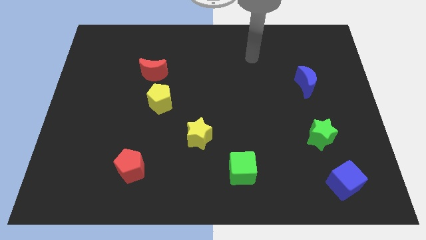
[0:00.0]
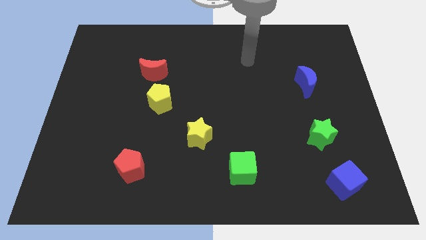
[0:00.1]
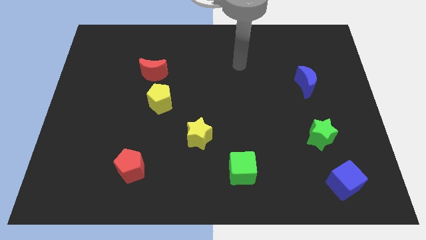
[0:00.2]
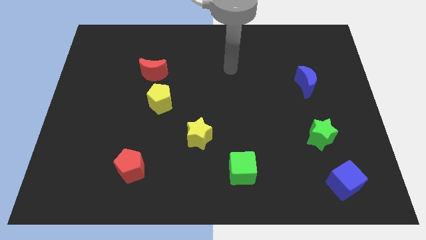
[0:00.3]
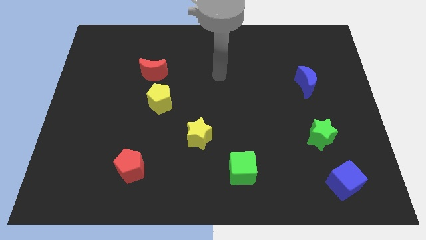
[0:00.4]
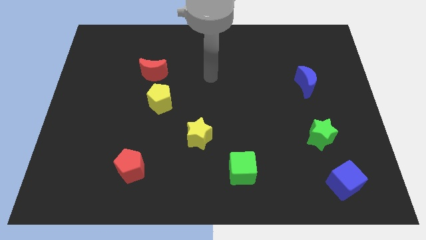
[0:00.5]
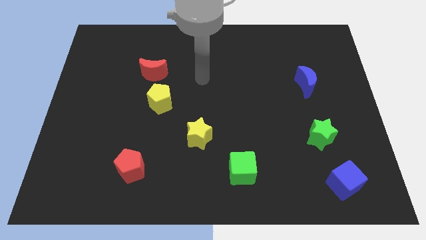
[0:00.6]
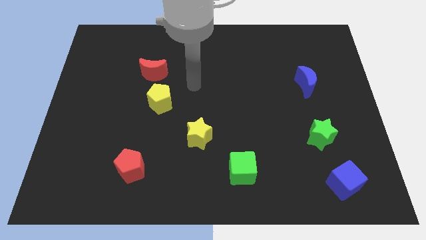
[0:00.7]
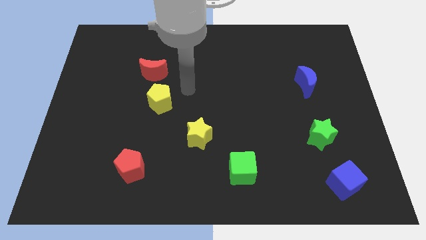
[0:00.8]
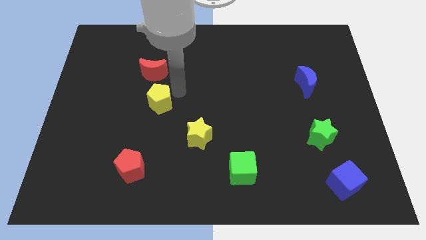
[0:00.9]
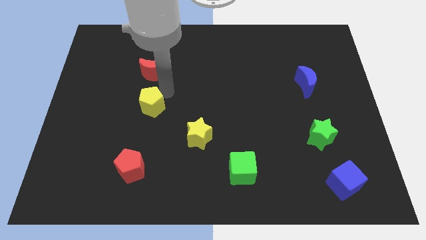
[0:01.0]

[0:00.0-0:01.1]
move the red moon away from the yellow pentagon

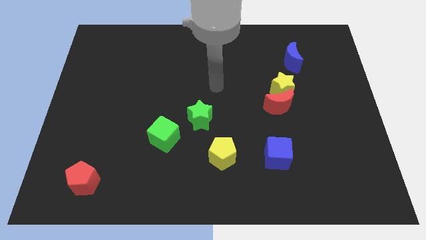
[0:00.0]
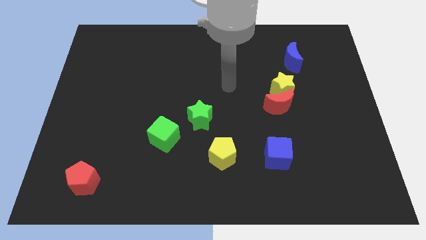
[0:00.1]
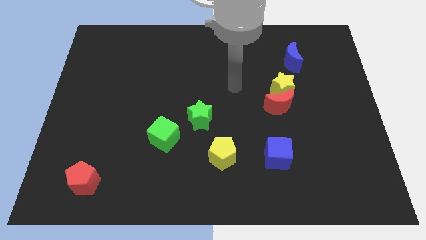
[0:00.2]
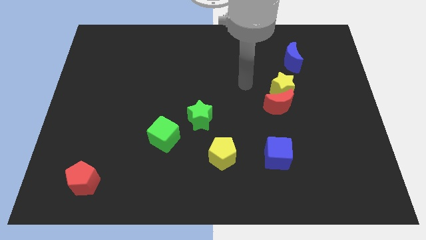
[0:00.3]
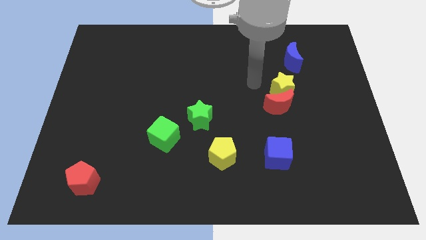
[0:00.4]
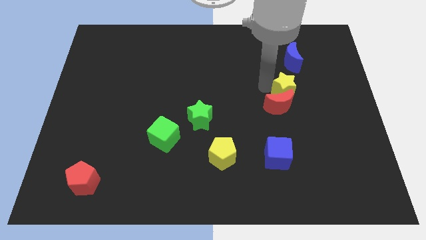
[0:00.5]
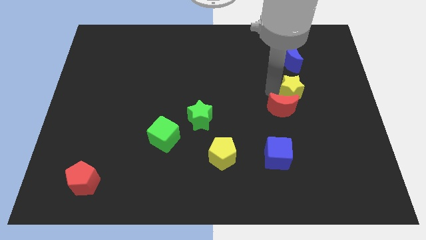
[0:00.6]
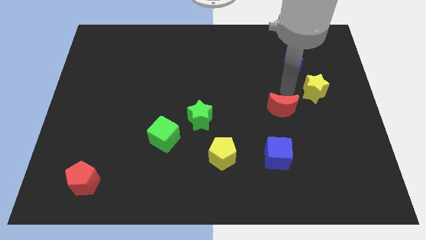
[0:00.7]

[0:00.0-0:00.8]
separate the red moon from the yellow star

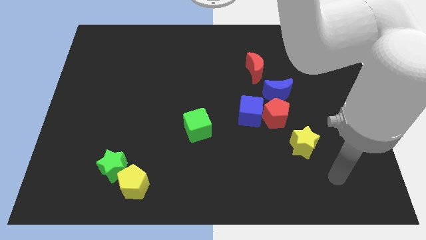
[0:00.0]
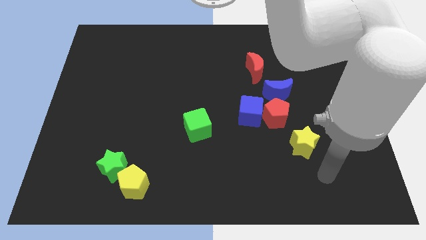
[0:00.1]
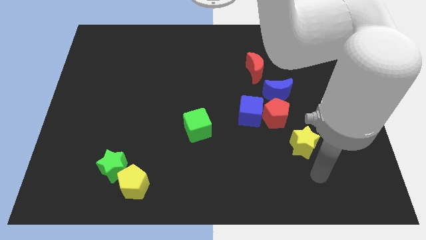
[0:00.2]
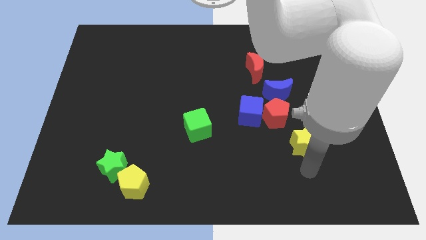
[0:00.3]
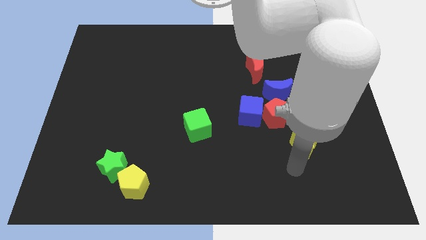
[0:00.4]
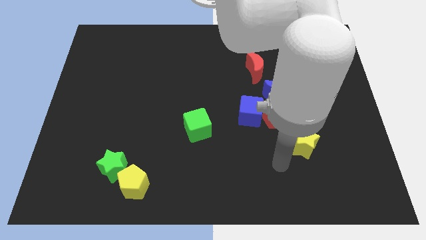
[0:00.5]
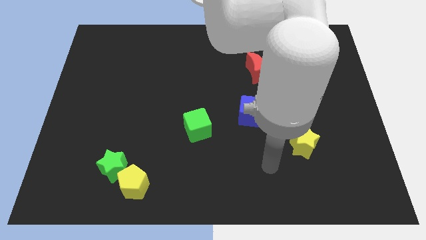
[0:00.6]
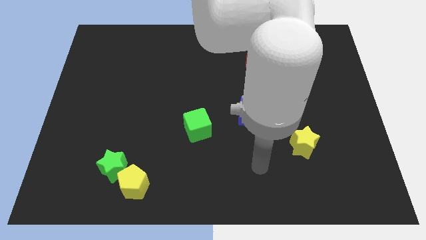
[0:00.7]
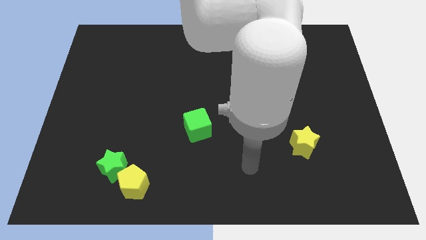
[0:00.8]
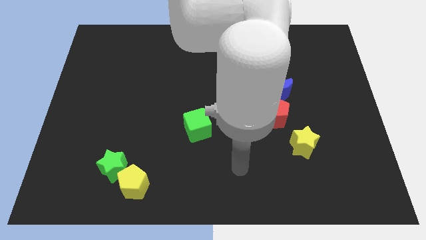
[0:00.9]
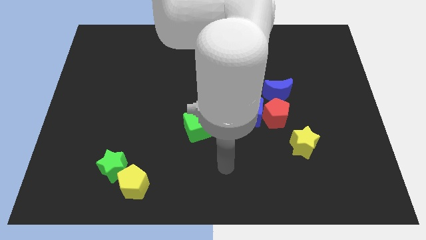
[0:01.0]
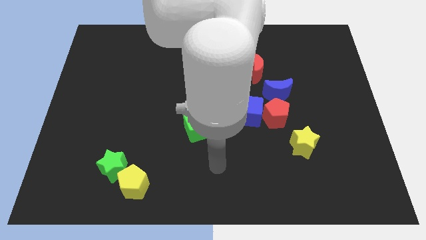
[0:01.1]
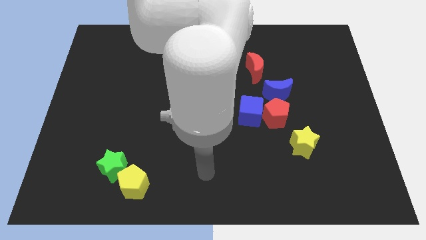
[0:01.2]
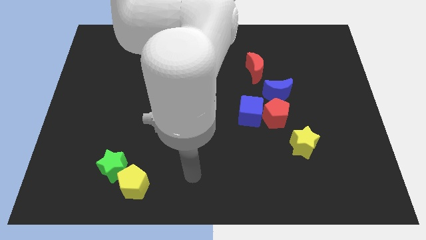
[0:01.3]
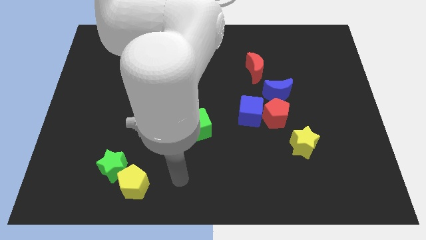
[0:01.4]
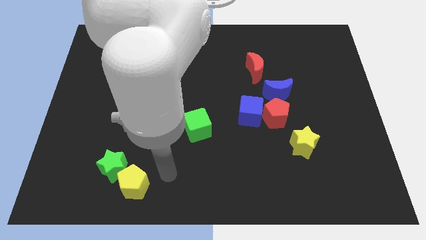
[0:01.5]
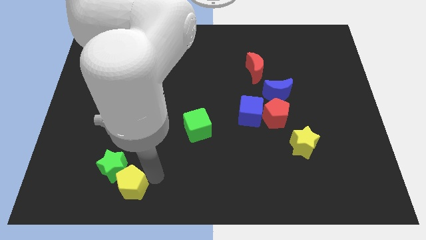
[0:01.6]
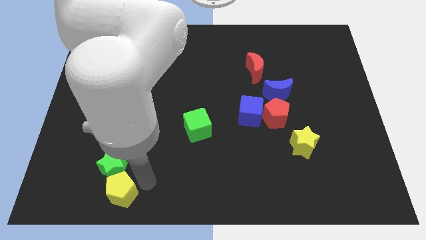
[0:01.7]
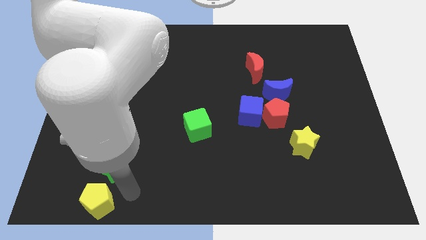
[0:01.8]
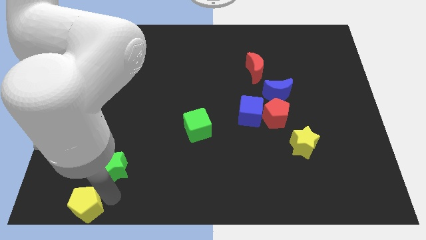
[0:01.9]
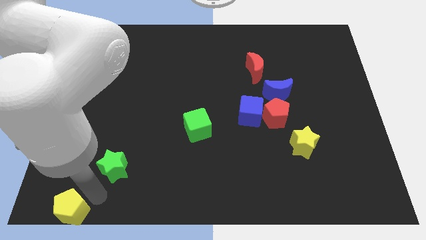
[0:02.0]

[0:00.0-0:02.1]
move the green star away from the yellow pentagon

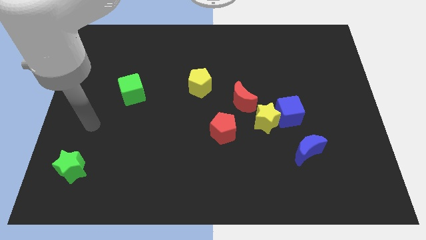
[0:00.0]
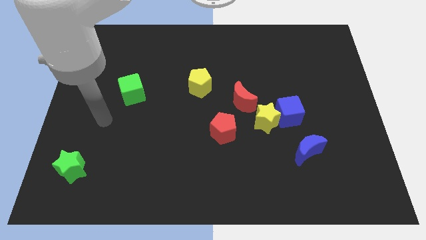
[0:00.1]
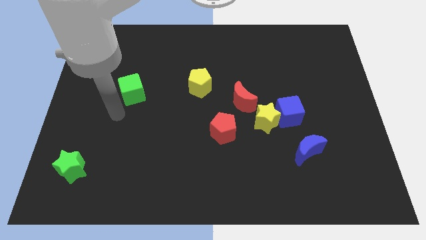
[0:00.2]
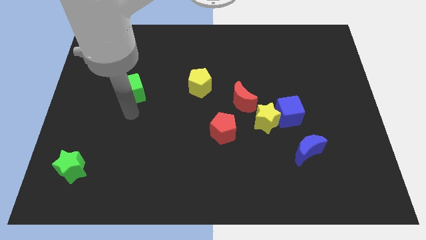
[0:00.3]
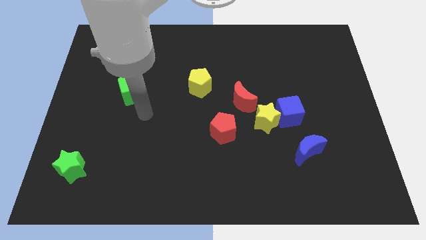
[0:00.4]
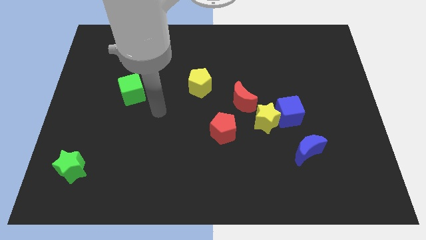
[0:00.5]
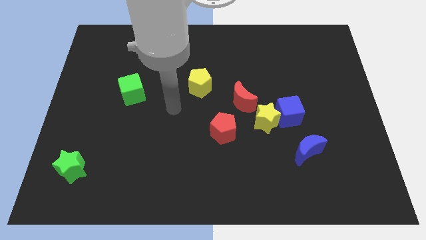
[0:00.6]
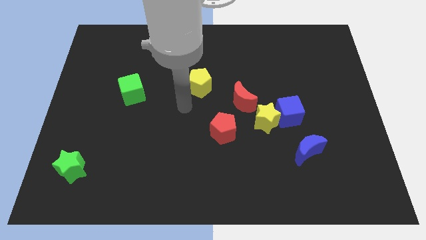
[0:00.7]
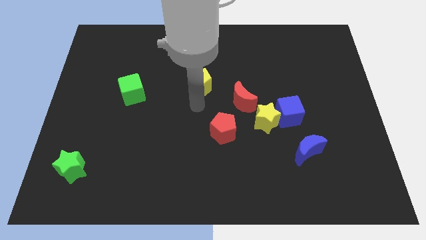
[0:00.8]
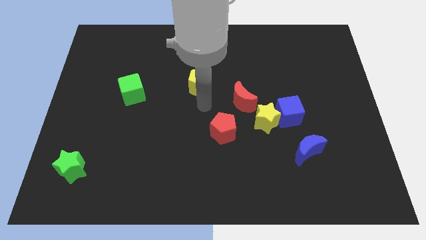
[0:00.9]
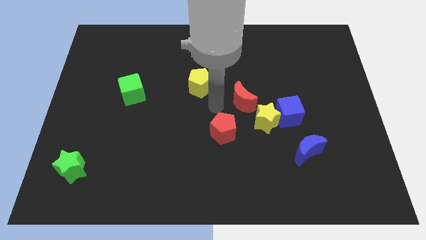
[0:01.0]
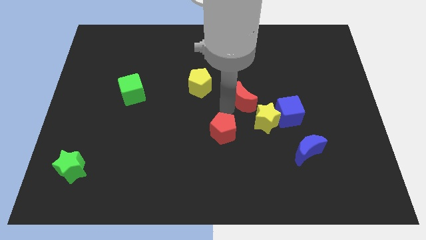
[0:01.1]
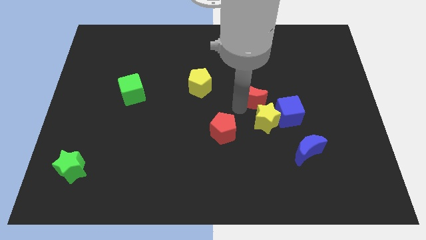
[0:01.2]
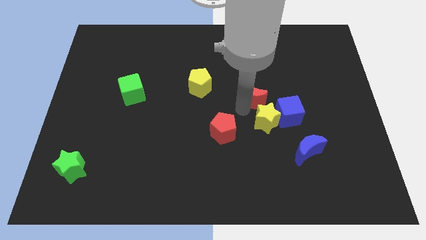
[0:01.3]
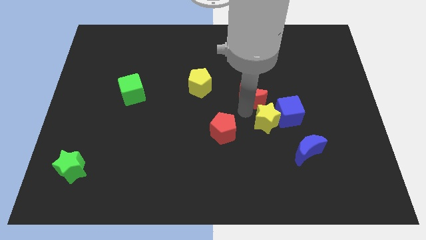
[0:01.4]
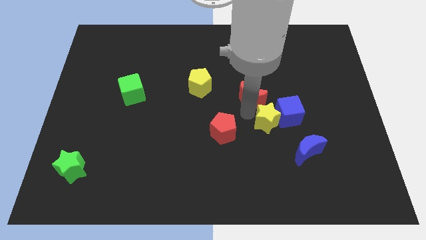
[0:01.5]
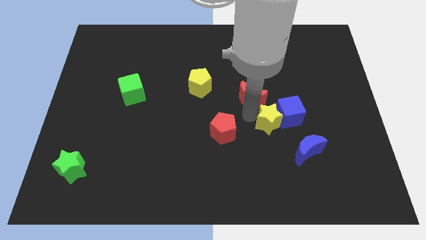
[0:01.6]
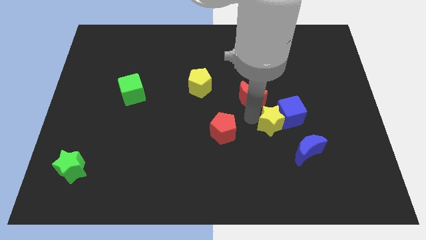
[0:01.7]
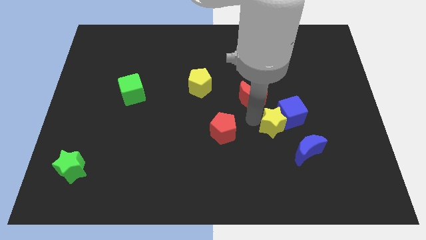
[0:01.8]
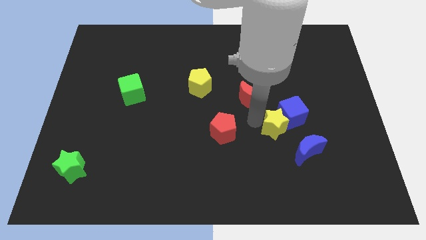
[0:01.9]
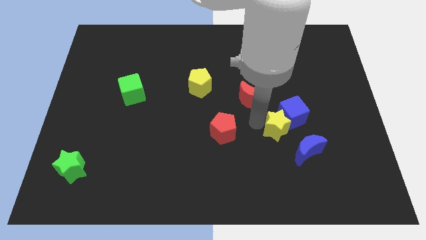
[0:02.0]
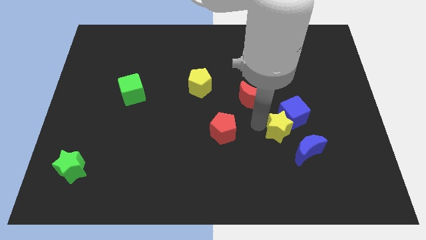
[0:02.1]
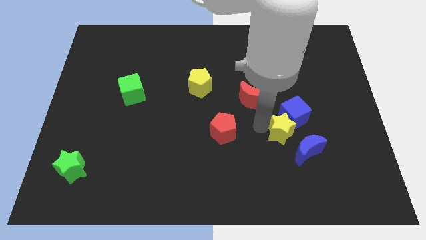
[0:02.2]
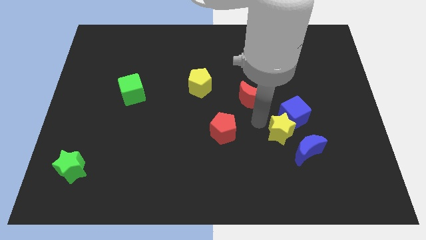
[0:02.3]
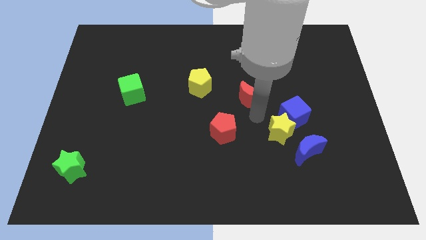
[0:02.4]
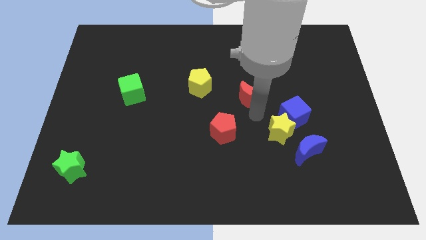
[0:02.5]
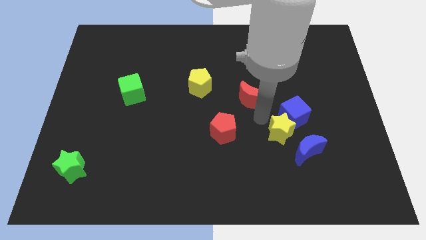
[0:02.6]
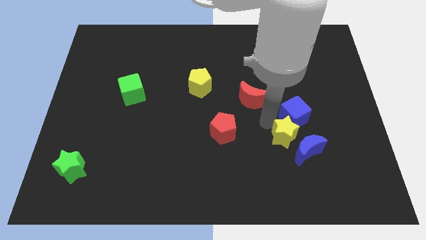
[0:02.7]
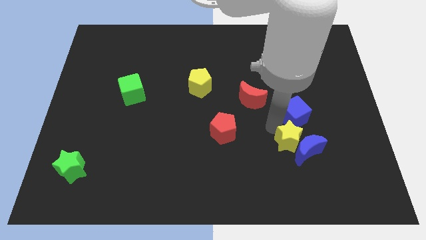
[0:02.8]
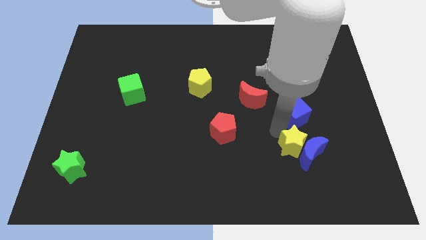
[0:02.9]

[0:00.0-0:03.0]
pull the yellow star apart from the blue cube, red moon, and red pentagon

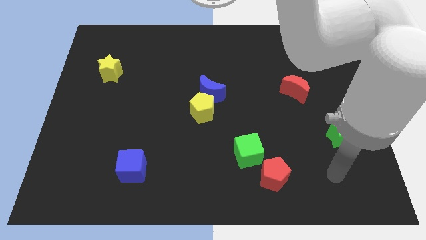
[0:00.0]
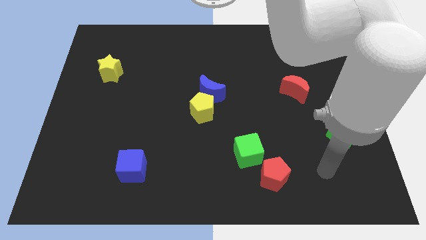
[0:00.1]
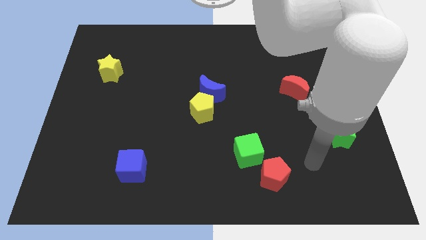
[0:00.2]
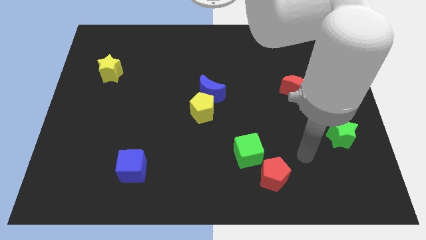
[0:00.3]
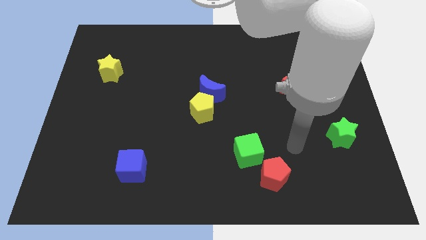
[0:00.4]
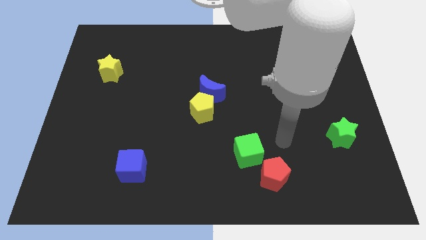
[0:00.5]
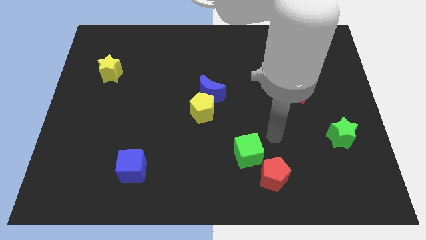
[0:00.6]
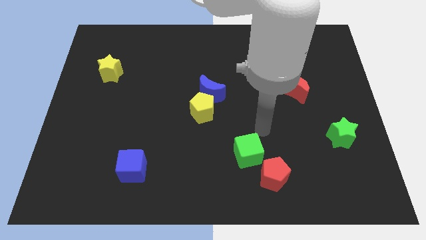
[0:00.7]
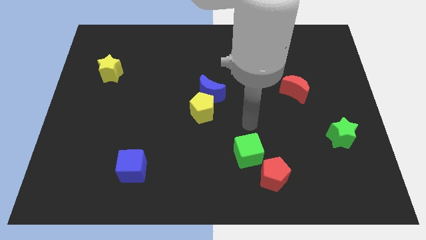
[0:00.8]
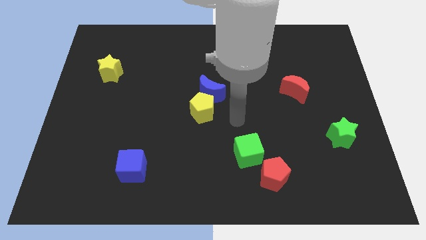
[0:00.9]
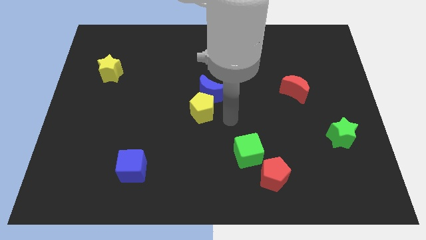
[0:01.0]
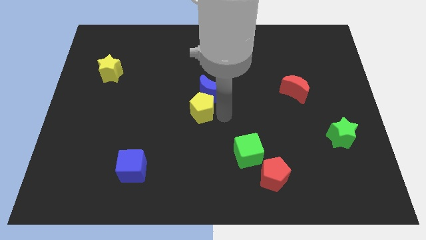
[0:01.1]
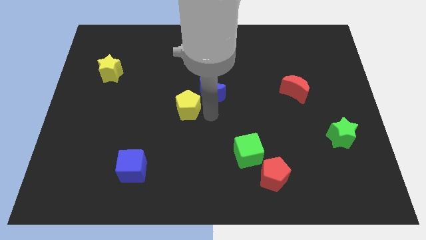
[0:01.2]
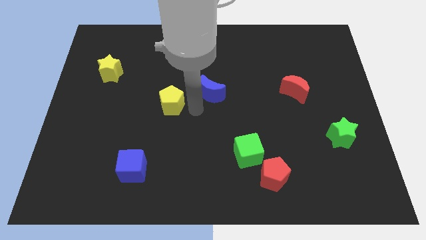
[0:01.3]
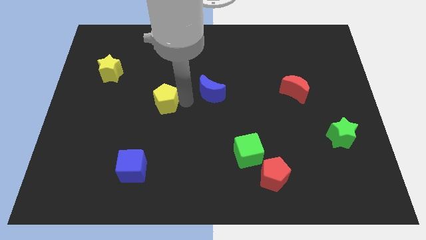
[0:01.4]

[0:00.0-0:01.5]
separate the blue moon from the yellow pentagon

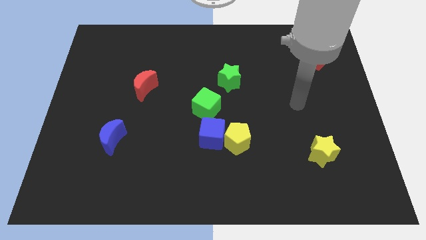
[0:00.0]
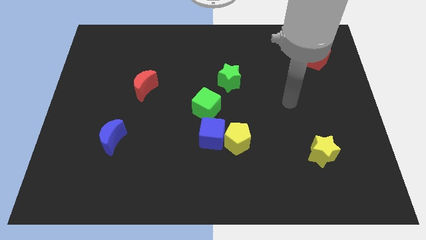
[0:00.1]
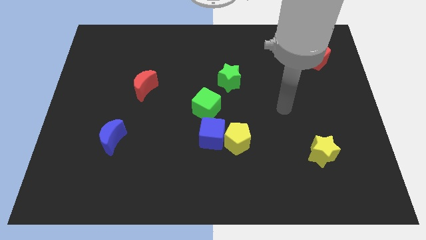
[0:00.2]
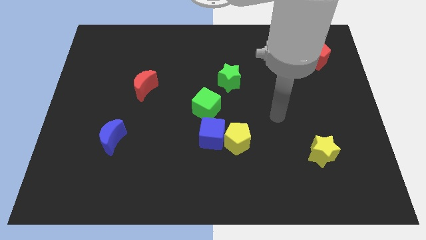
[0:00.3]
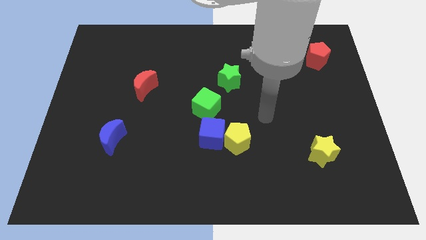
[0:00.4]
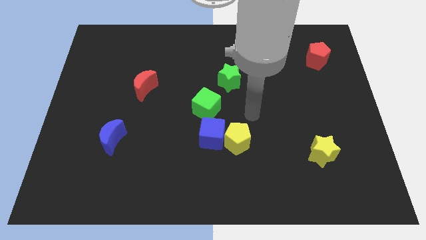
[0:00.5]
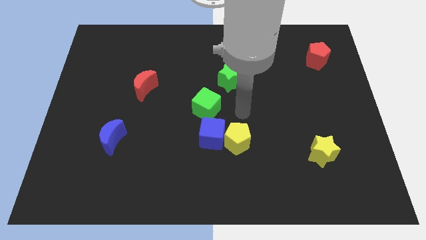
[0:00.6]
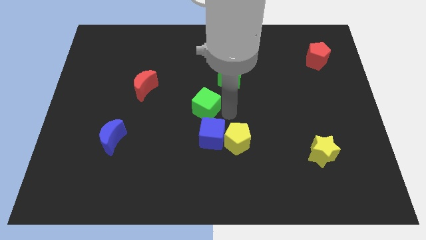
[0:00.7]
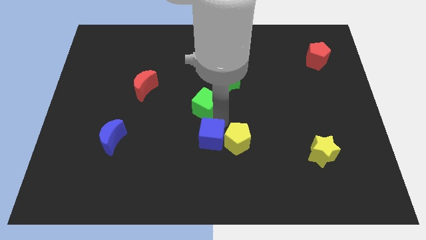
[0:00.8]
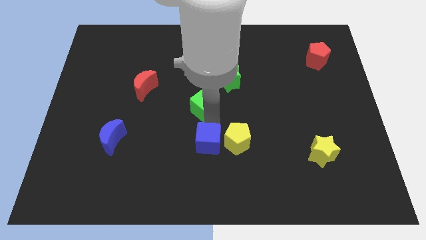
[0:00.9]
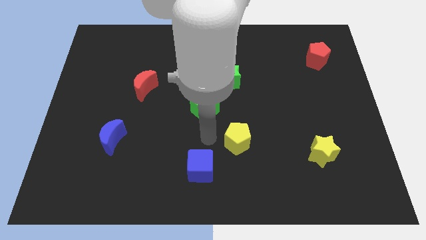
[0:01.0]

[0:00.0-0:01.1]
pull the yellow pentagon apart from the blue cube
